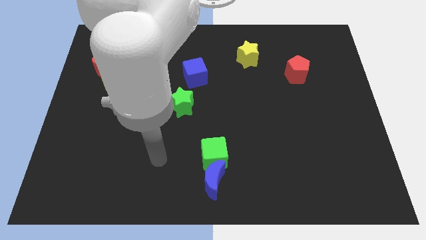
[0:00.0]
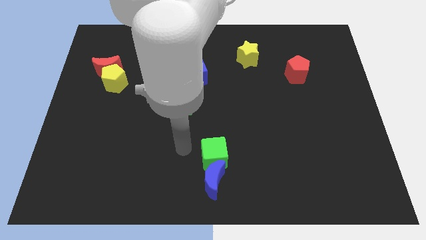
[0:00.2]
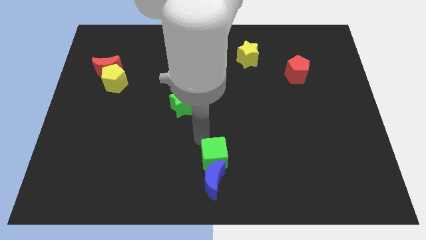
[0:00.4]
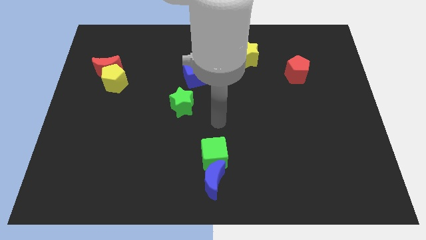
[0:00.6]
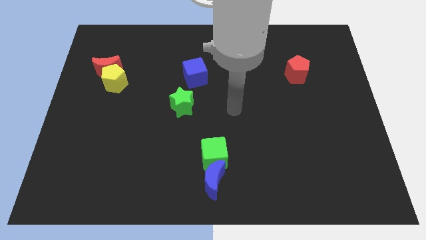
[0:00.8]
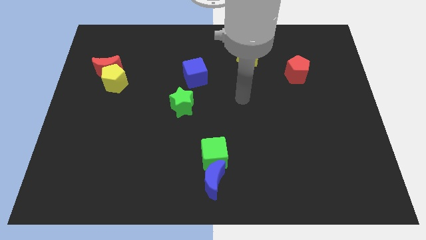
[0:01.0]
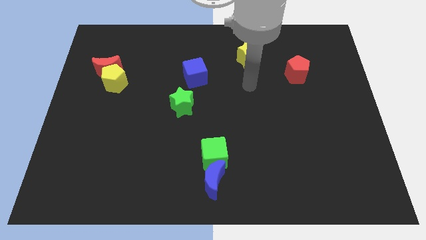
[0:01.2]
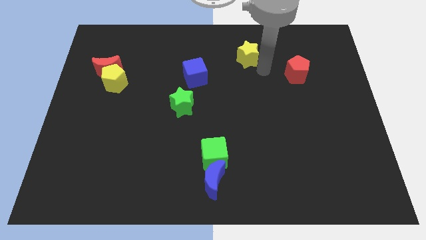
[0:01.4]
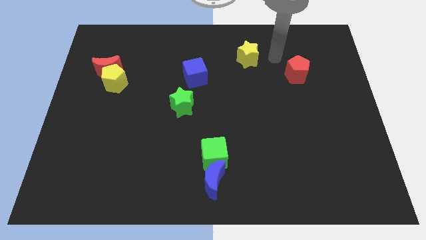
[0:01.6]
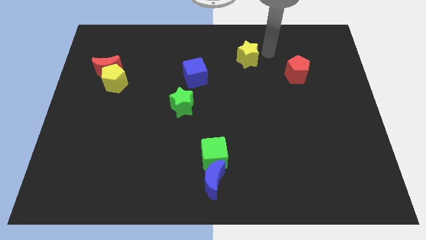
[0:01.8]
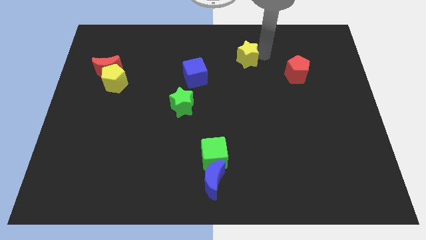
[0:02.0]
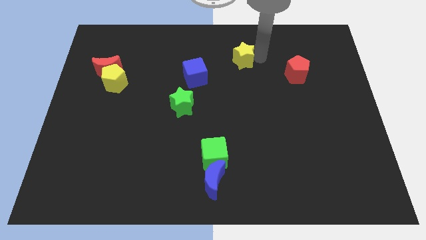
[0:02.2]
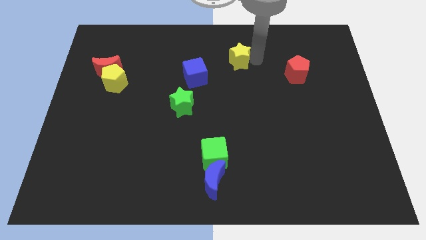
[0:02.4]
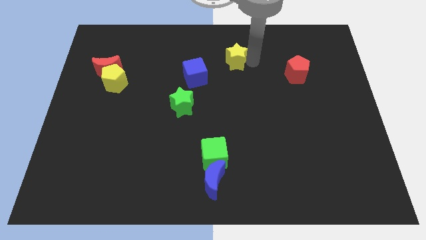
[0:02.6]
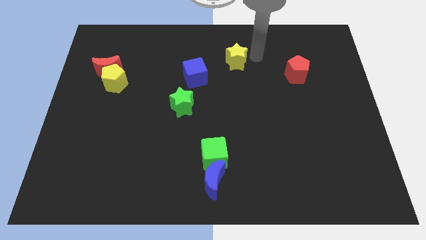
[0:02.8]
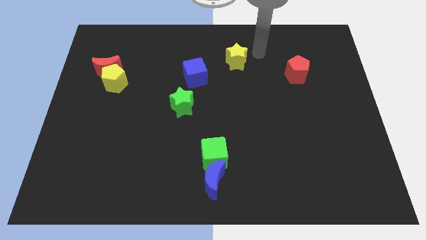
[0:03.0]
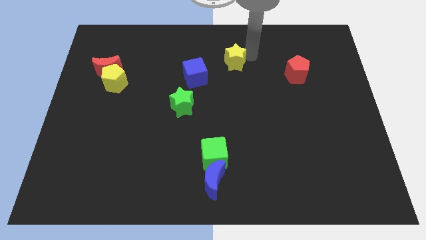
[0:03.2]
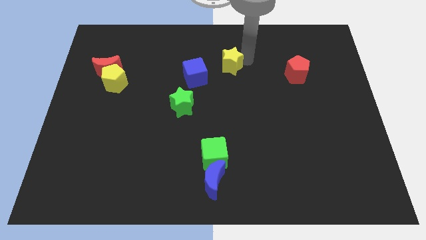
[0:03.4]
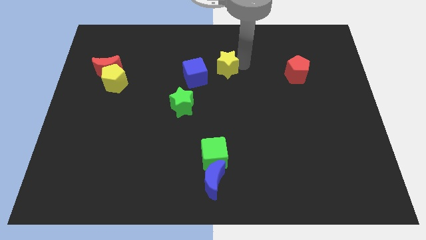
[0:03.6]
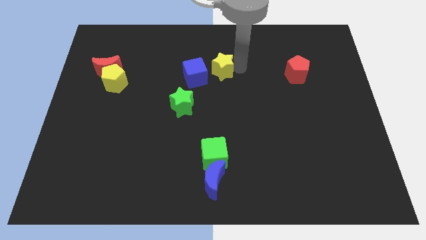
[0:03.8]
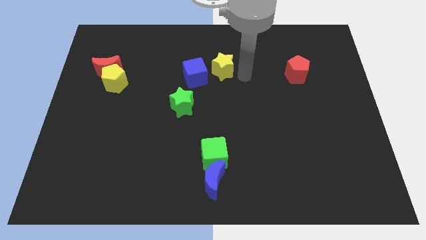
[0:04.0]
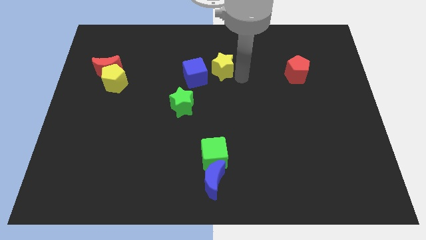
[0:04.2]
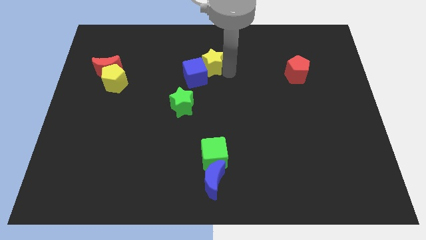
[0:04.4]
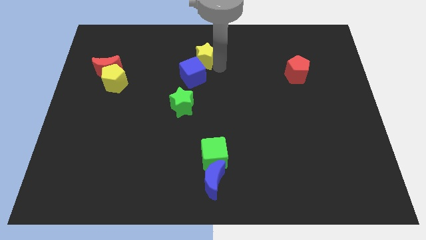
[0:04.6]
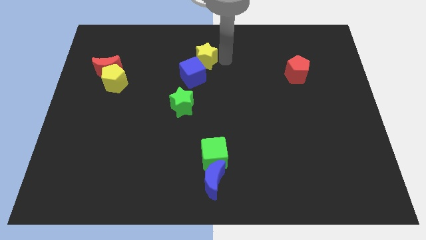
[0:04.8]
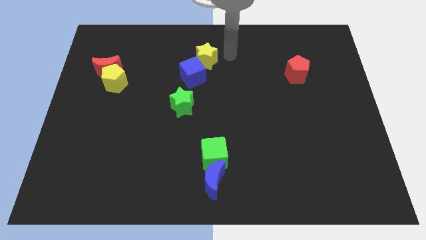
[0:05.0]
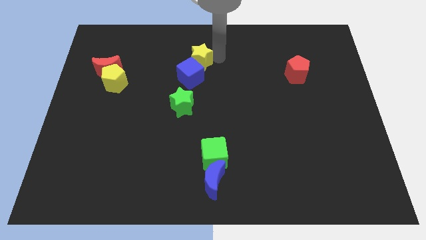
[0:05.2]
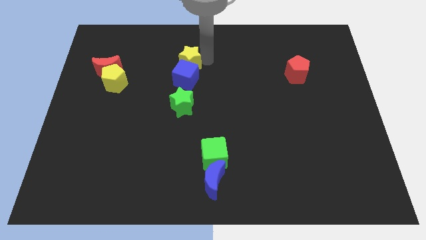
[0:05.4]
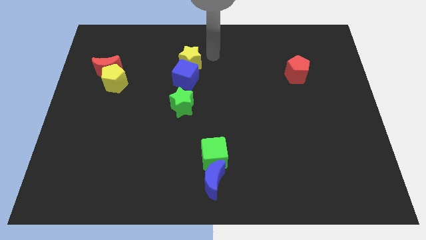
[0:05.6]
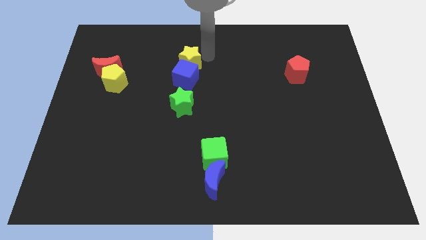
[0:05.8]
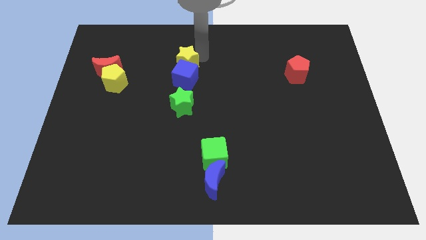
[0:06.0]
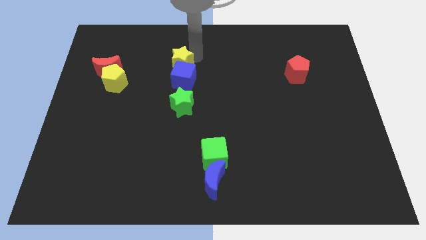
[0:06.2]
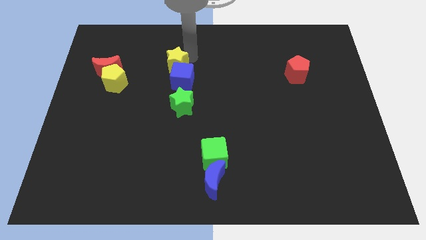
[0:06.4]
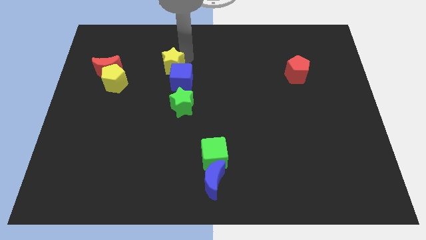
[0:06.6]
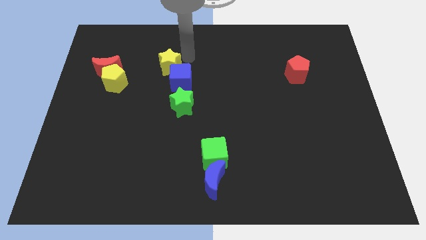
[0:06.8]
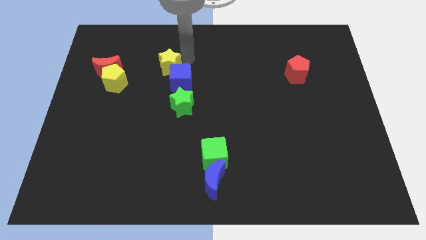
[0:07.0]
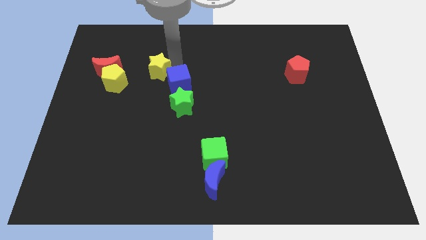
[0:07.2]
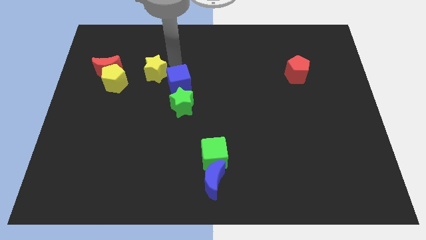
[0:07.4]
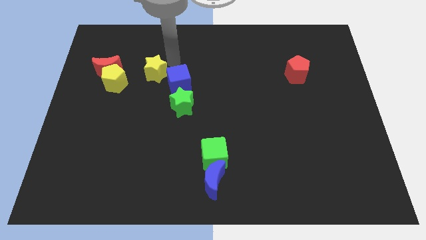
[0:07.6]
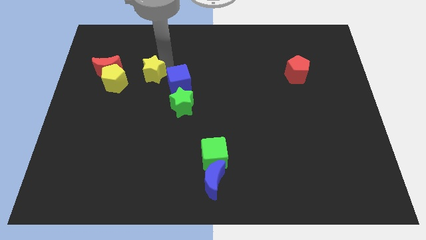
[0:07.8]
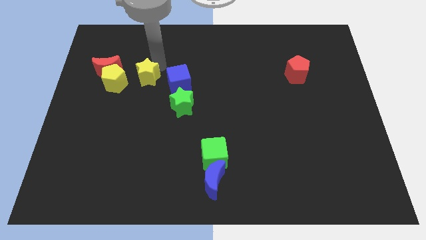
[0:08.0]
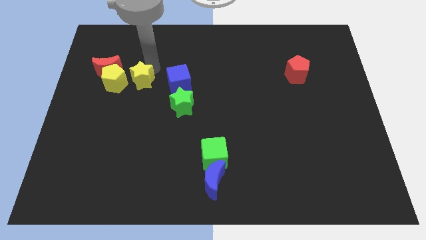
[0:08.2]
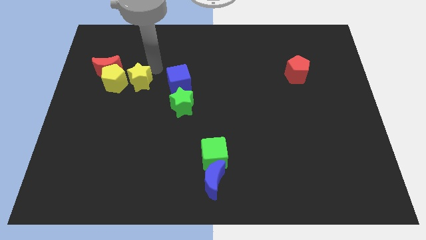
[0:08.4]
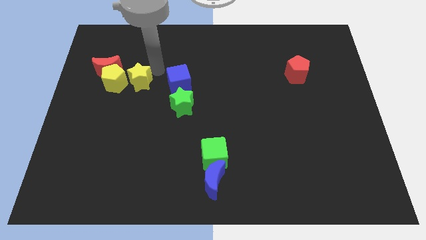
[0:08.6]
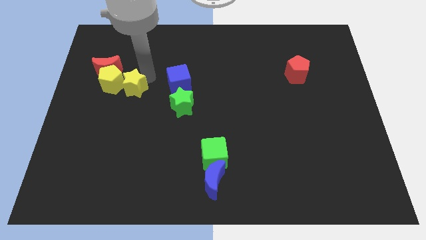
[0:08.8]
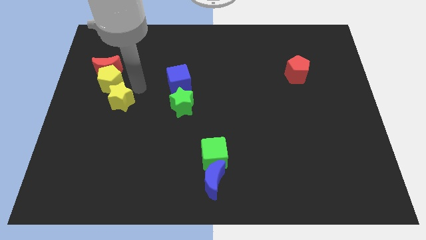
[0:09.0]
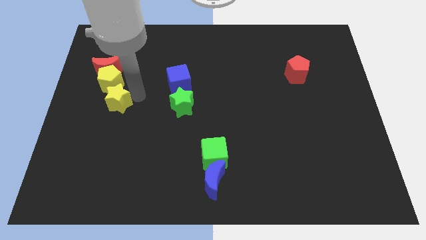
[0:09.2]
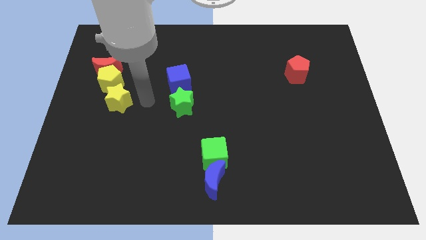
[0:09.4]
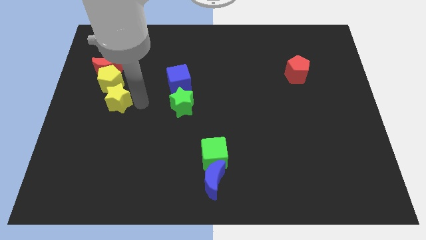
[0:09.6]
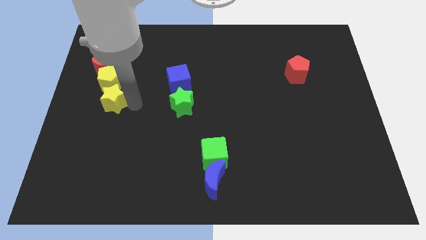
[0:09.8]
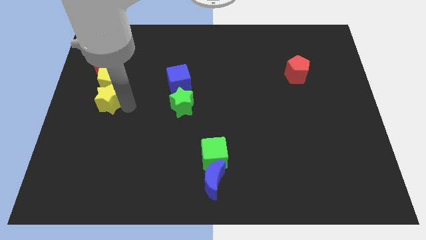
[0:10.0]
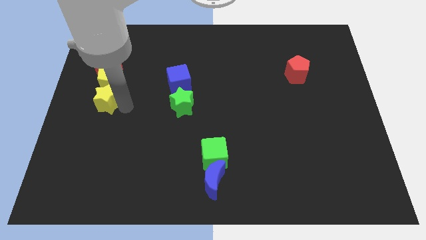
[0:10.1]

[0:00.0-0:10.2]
slide the yellow star to the left side of the board

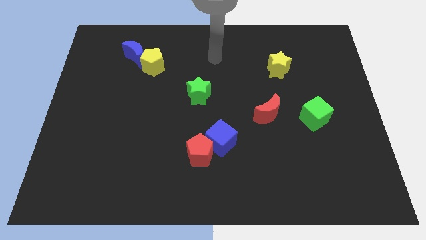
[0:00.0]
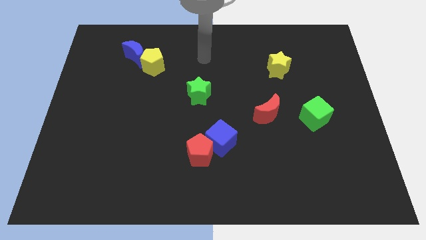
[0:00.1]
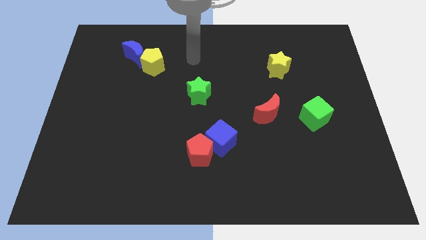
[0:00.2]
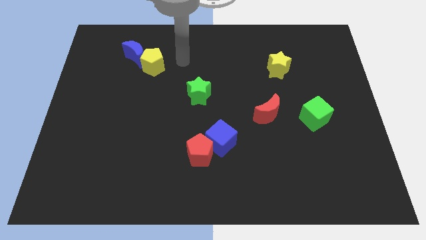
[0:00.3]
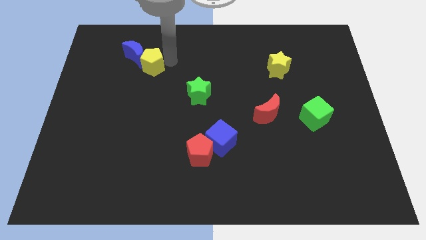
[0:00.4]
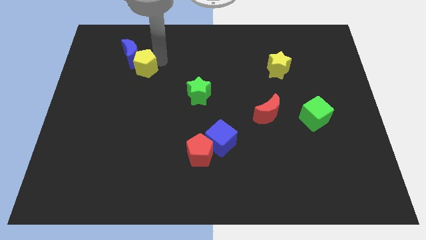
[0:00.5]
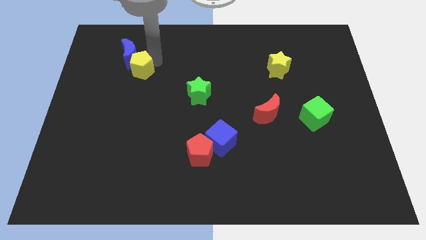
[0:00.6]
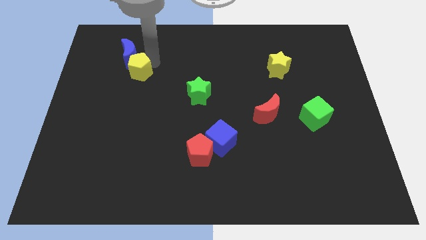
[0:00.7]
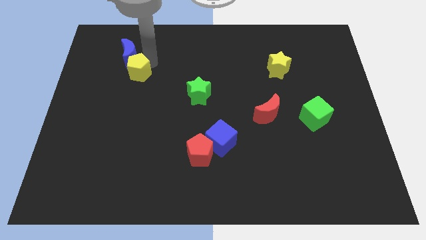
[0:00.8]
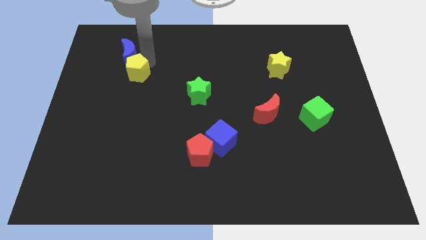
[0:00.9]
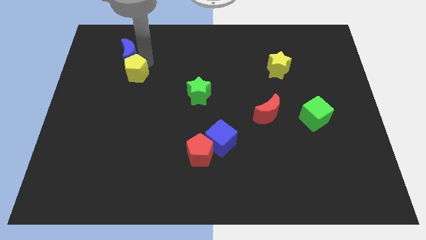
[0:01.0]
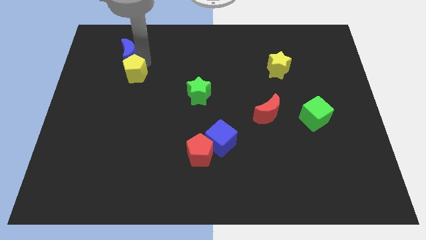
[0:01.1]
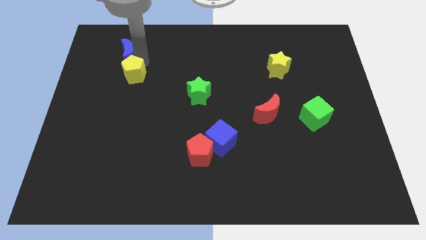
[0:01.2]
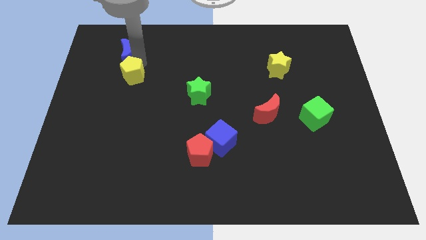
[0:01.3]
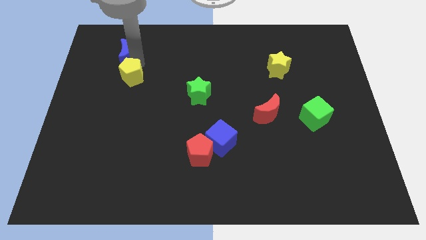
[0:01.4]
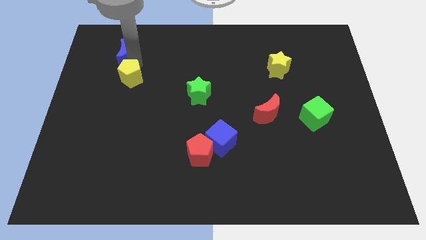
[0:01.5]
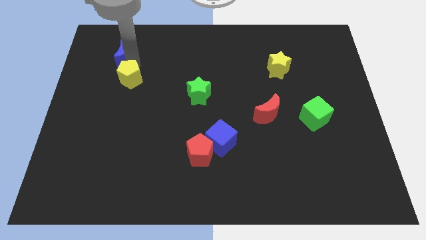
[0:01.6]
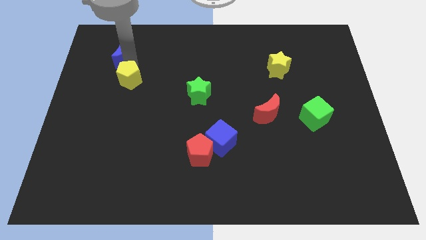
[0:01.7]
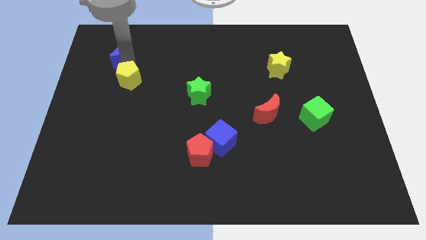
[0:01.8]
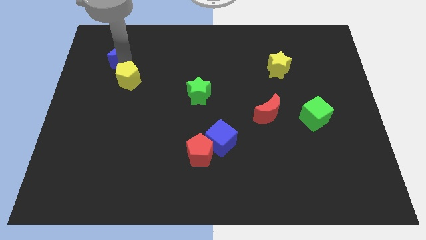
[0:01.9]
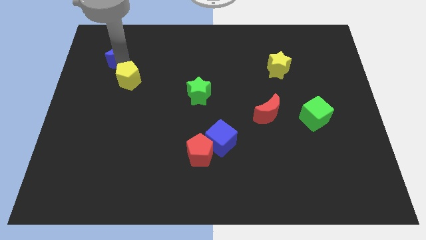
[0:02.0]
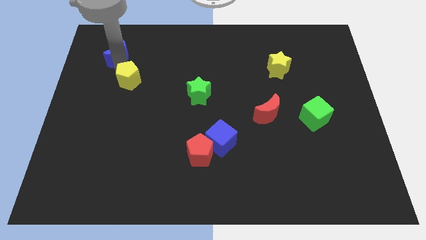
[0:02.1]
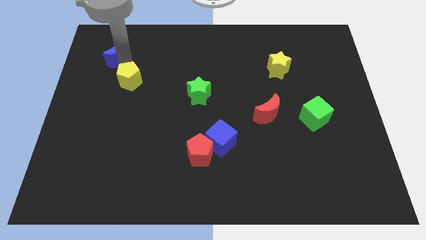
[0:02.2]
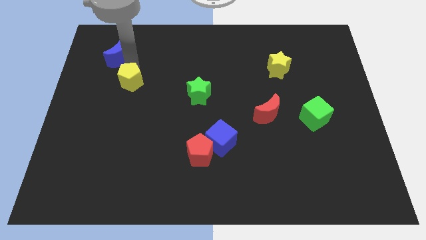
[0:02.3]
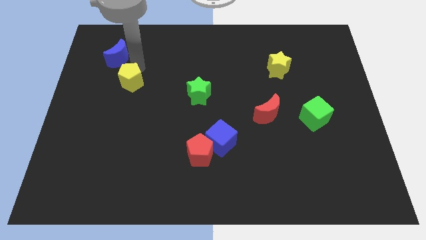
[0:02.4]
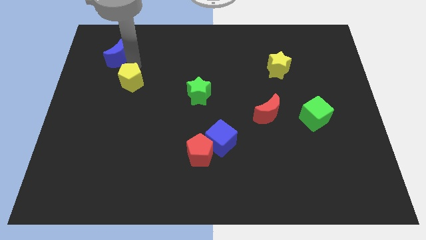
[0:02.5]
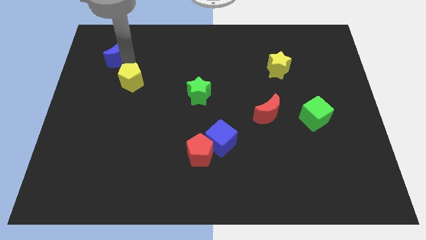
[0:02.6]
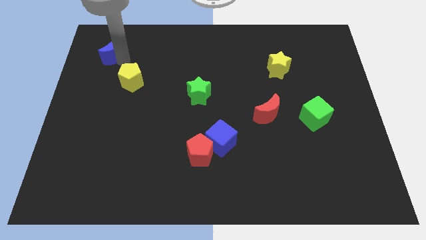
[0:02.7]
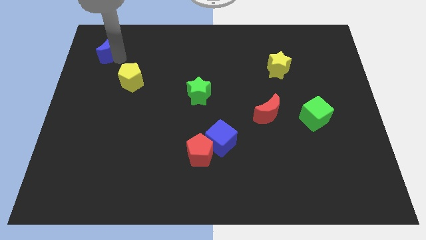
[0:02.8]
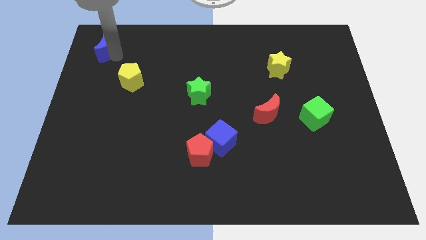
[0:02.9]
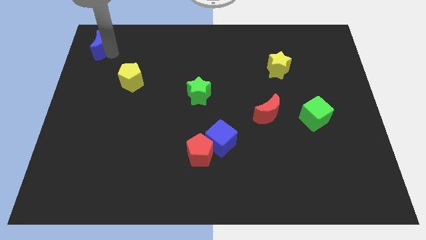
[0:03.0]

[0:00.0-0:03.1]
push the blue moon to the upper left corner
